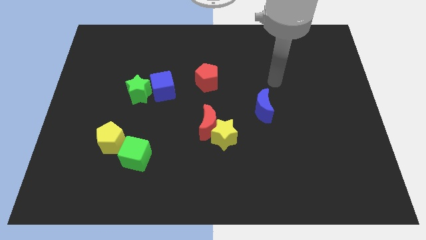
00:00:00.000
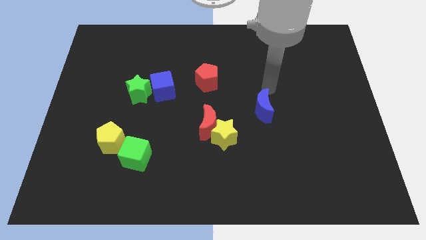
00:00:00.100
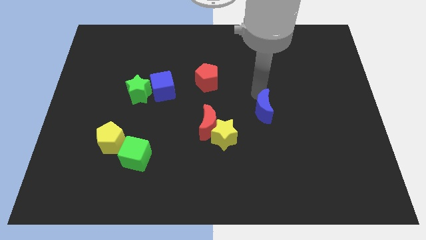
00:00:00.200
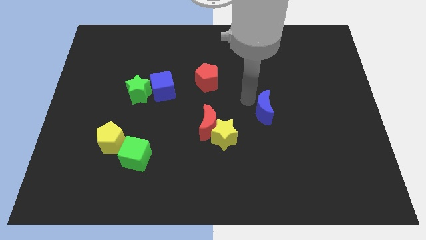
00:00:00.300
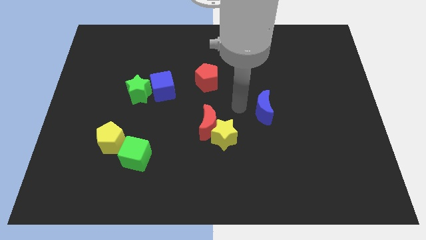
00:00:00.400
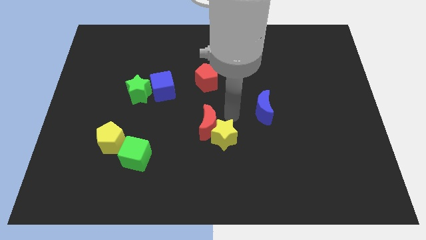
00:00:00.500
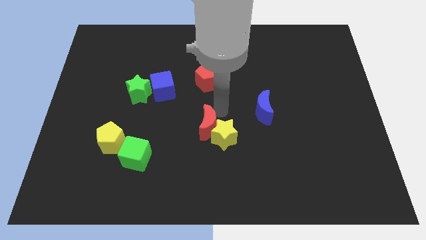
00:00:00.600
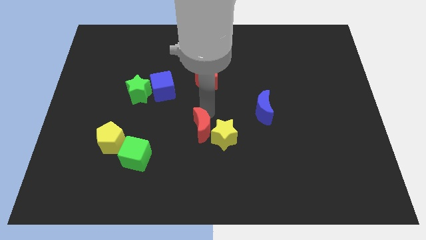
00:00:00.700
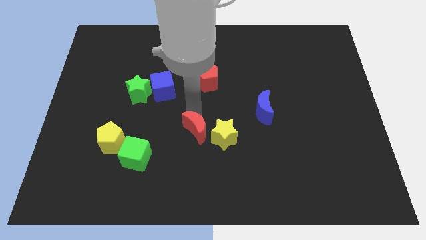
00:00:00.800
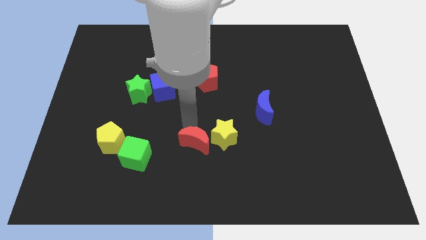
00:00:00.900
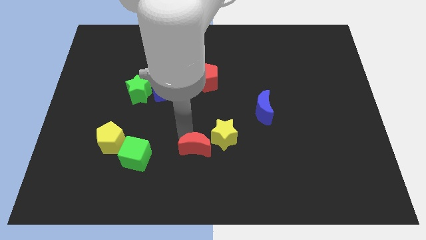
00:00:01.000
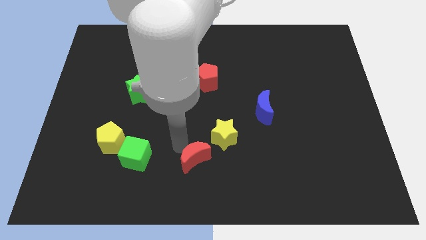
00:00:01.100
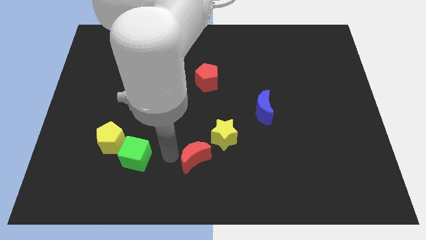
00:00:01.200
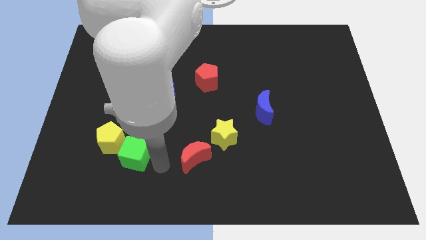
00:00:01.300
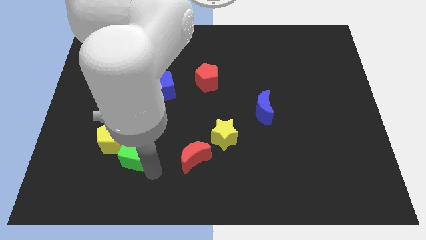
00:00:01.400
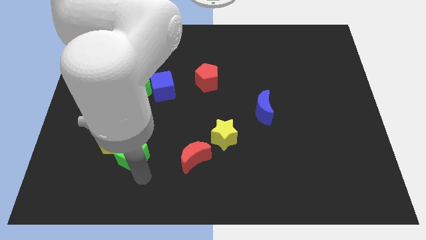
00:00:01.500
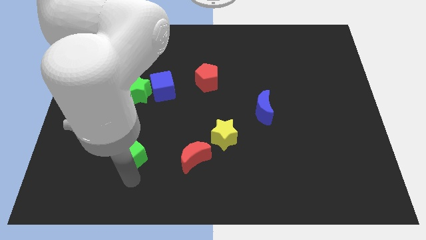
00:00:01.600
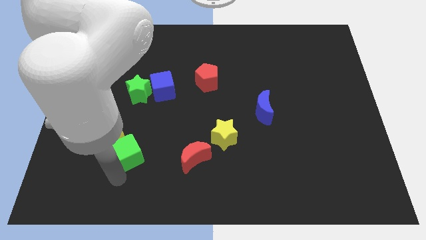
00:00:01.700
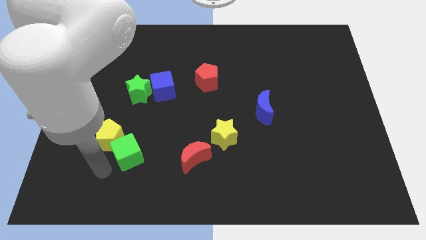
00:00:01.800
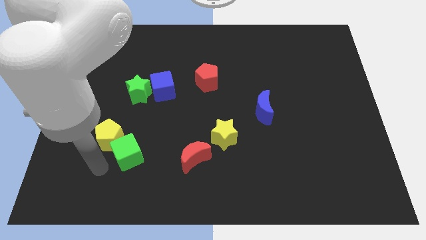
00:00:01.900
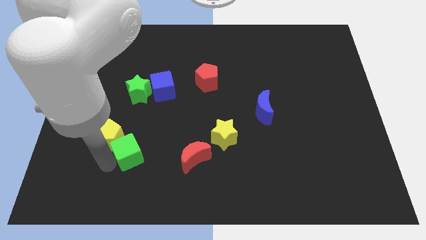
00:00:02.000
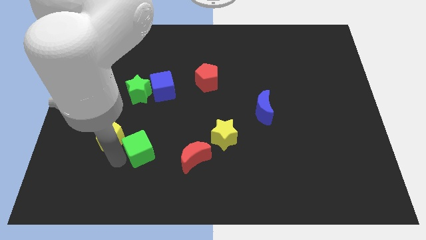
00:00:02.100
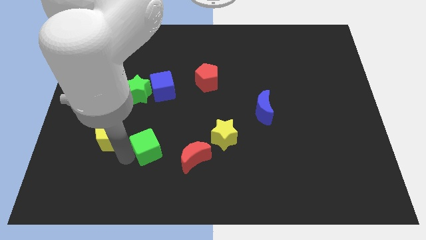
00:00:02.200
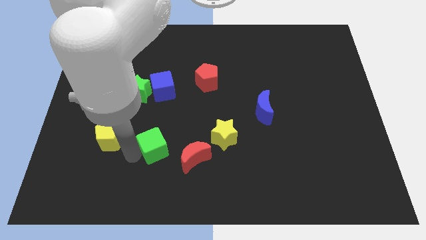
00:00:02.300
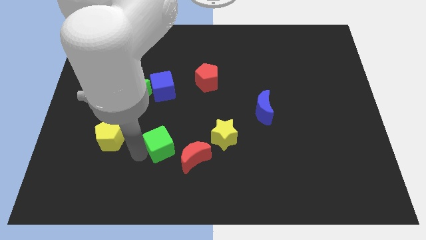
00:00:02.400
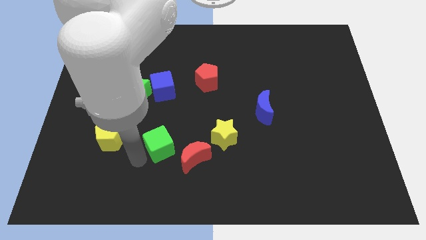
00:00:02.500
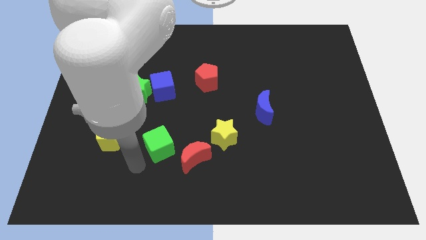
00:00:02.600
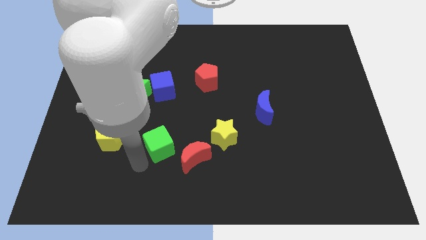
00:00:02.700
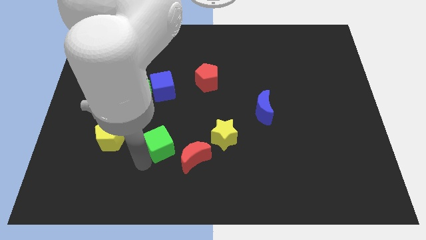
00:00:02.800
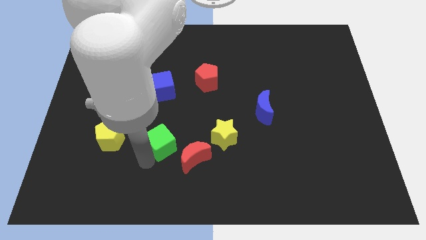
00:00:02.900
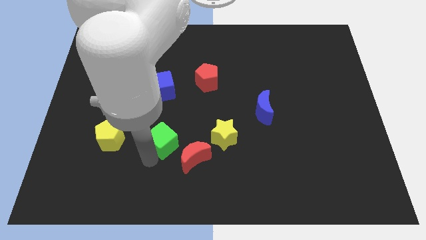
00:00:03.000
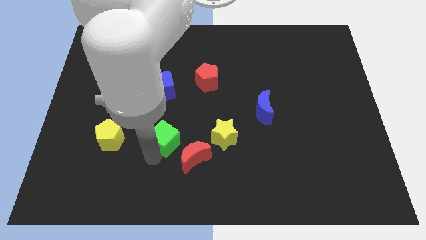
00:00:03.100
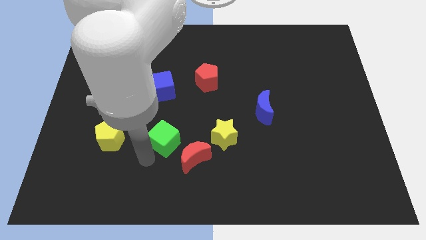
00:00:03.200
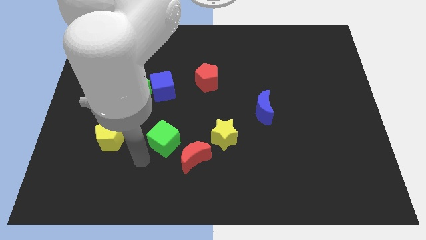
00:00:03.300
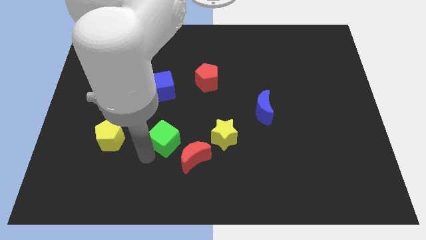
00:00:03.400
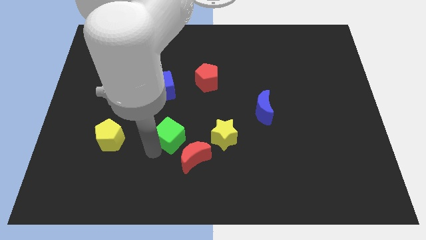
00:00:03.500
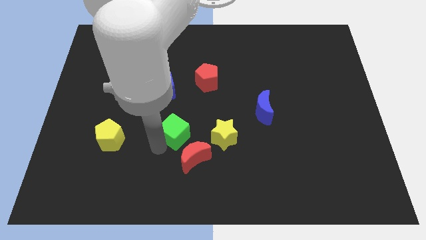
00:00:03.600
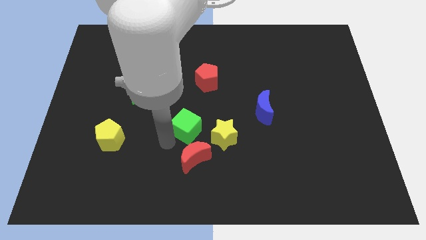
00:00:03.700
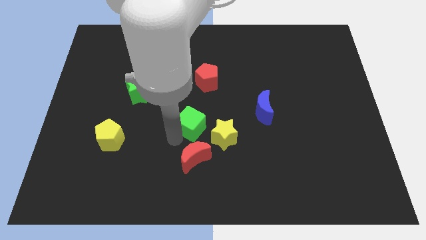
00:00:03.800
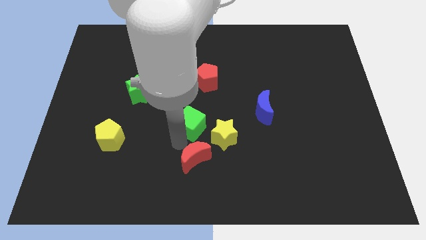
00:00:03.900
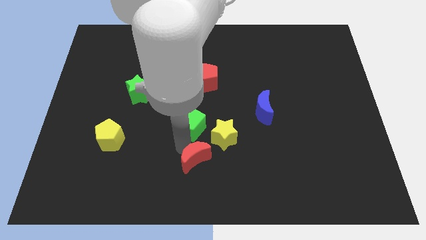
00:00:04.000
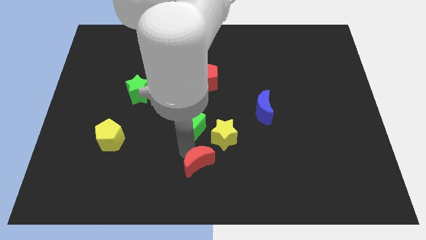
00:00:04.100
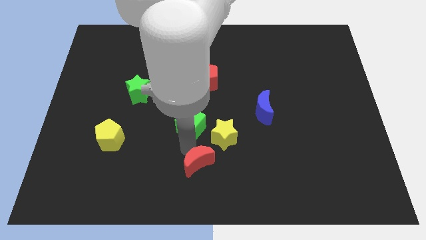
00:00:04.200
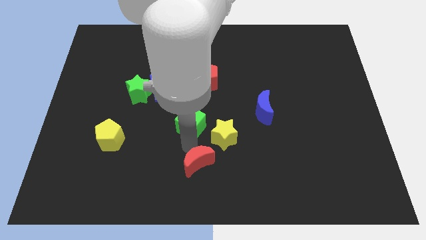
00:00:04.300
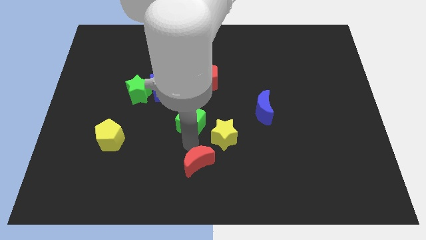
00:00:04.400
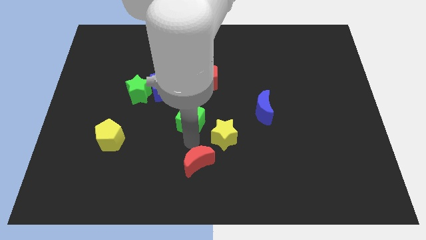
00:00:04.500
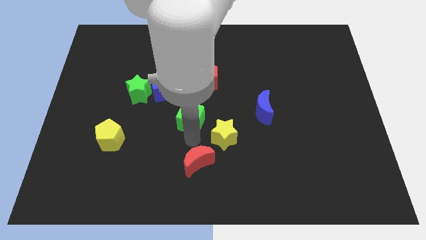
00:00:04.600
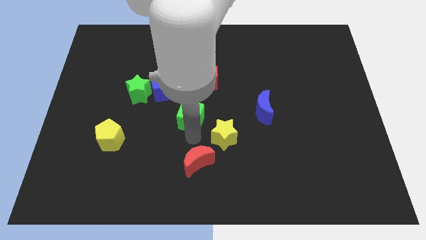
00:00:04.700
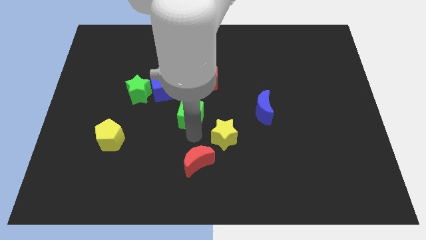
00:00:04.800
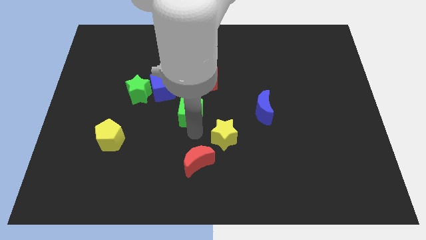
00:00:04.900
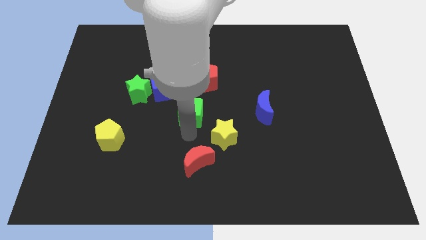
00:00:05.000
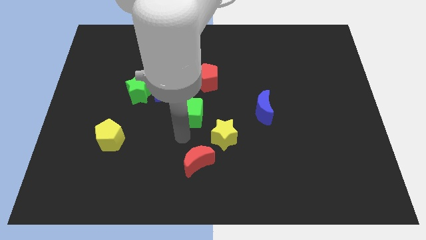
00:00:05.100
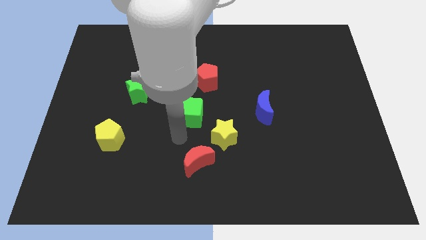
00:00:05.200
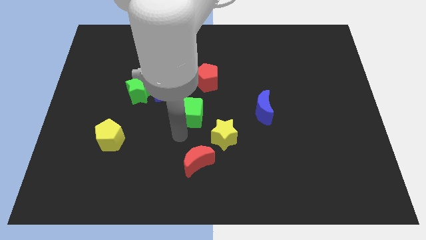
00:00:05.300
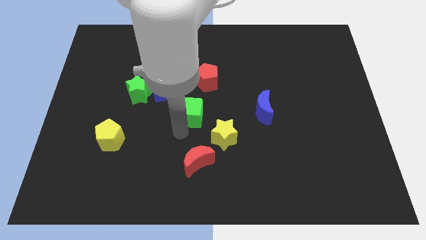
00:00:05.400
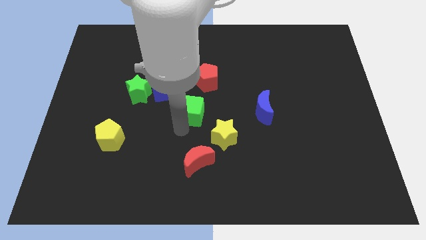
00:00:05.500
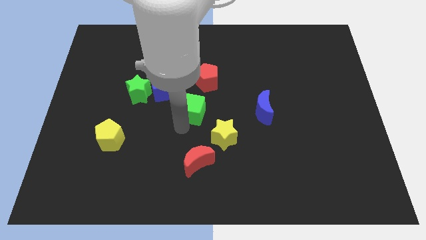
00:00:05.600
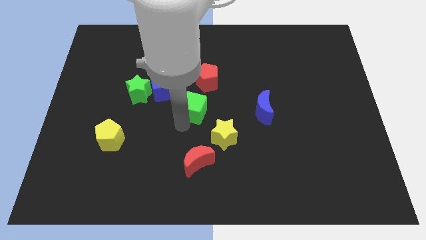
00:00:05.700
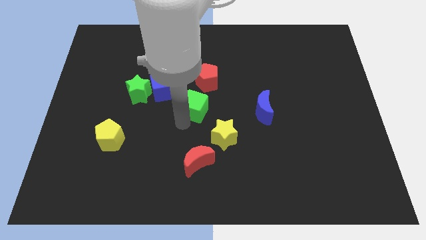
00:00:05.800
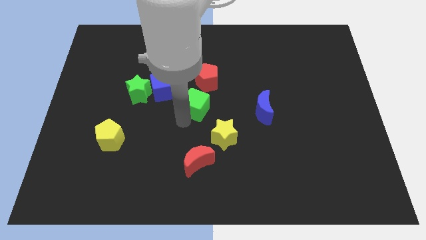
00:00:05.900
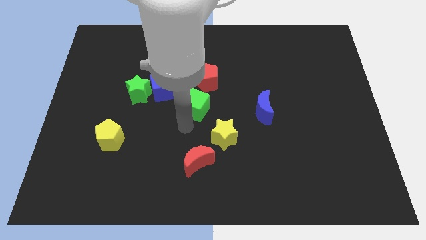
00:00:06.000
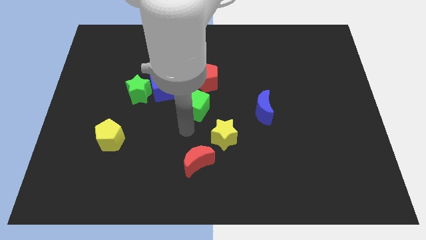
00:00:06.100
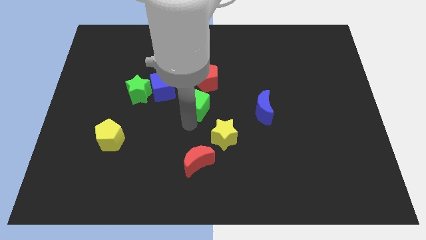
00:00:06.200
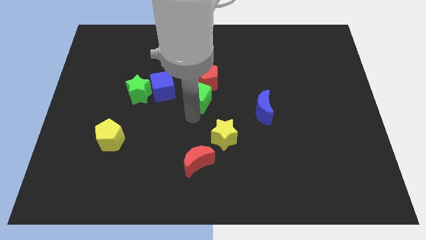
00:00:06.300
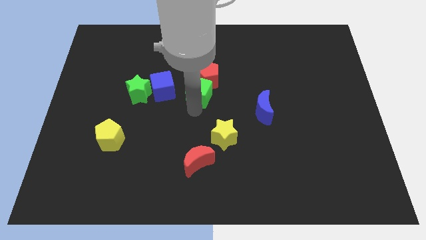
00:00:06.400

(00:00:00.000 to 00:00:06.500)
move the green cube close to the red pentagon
